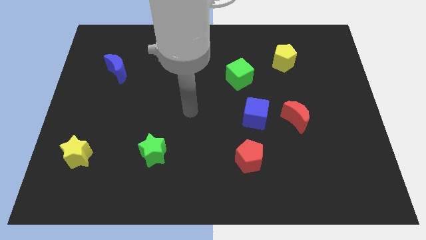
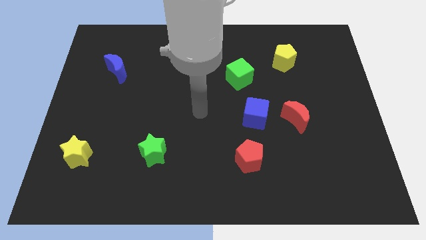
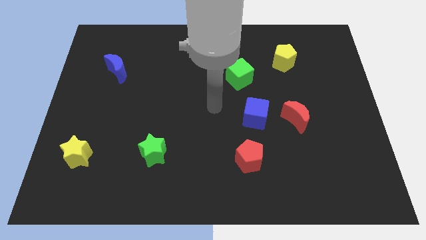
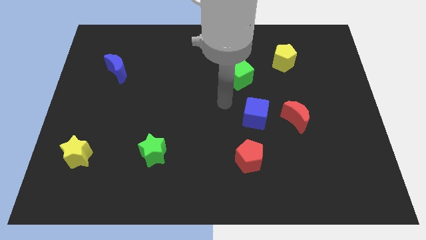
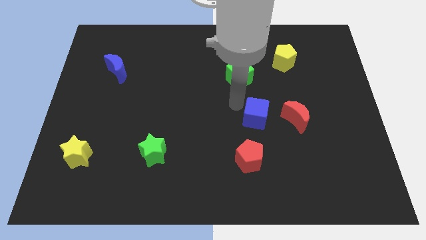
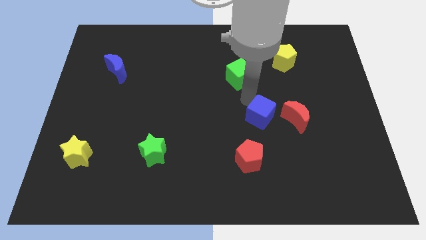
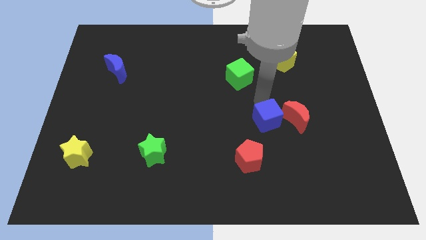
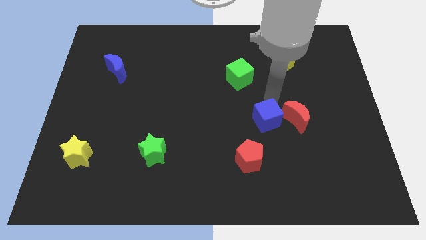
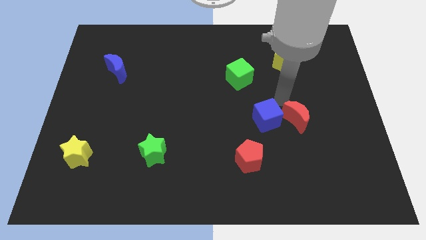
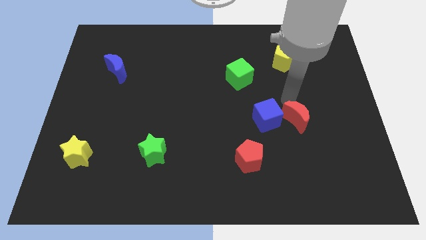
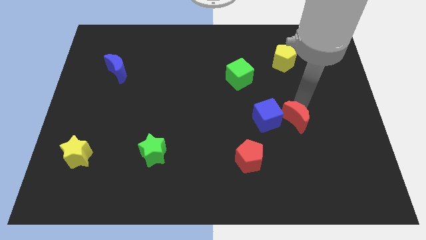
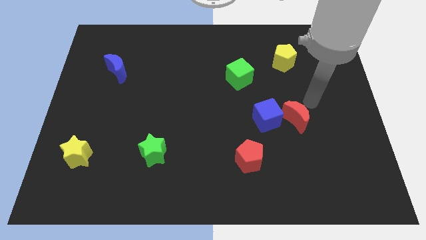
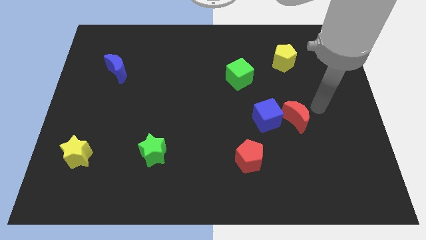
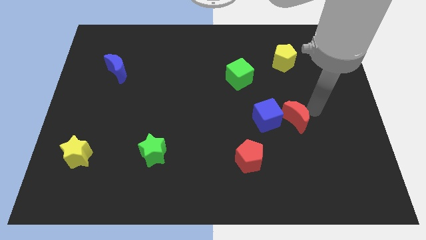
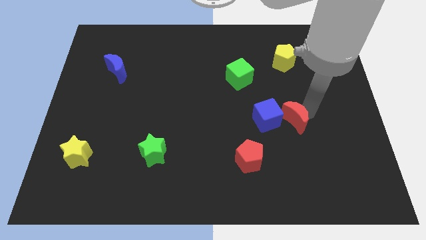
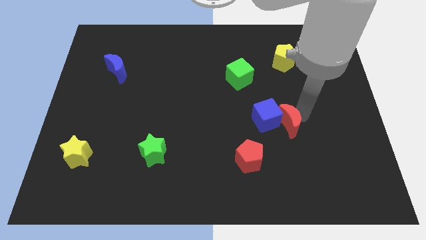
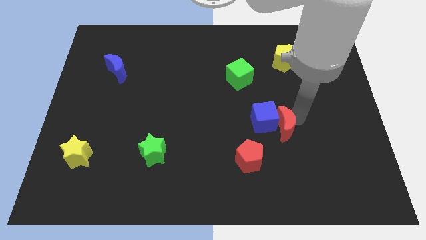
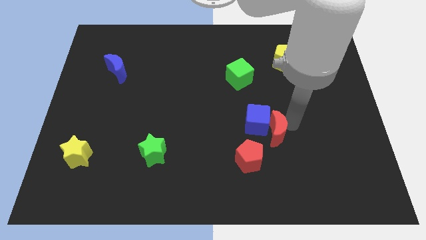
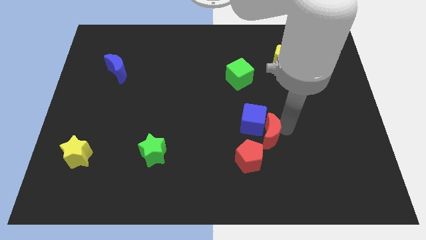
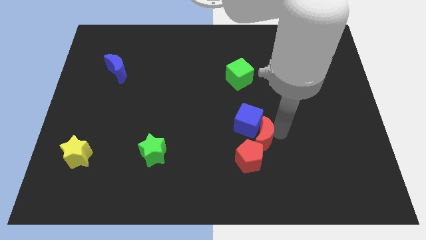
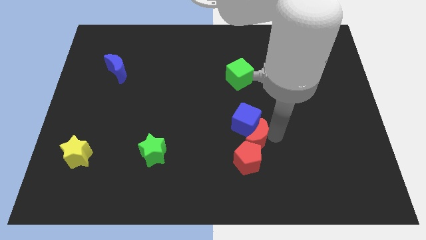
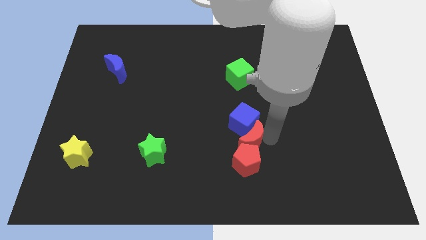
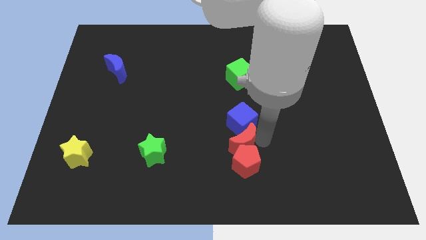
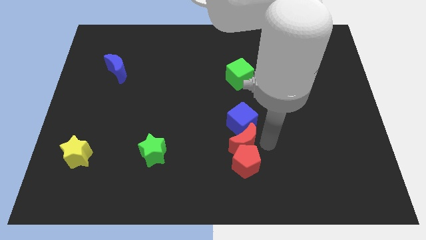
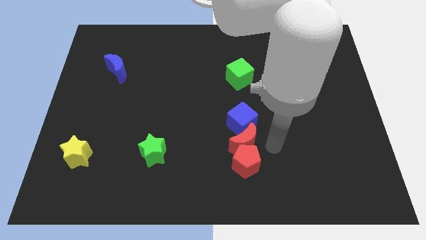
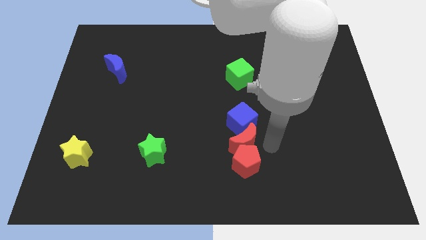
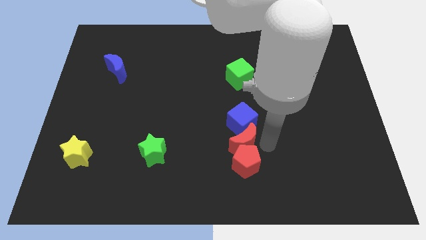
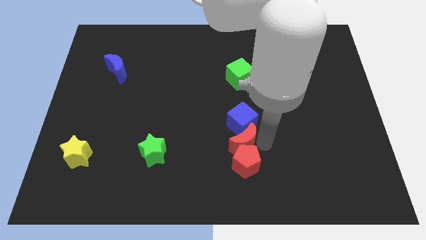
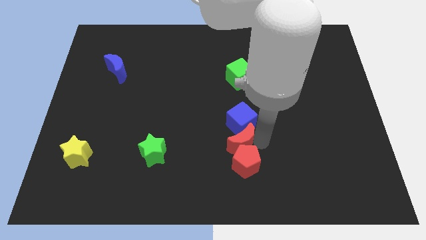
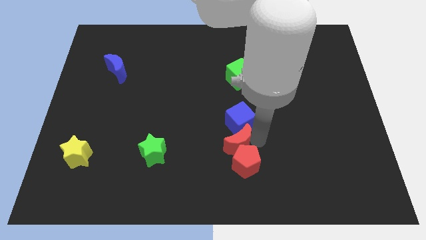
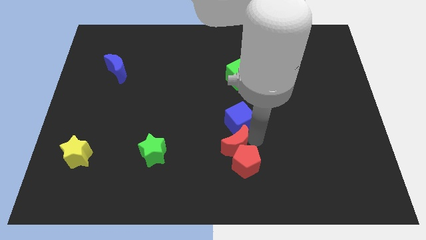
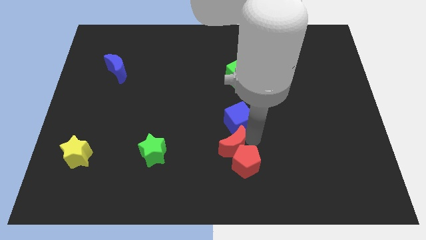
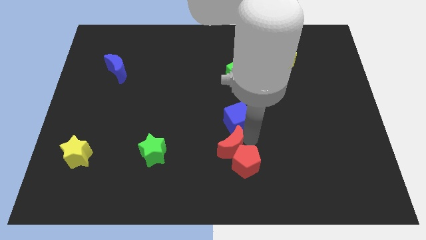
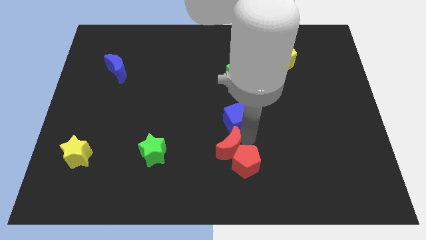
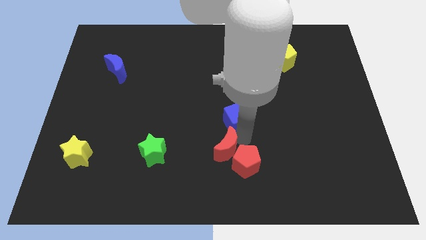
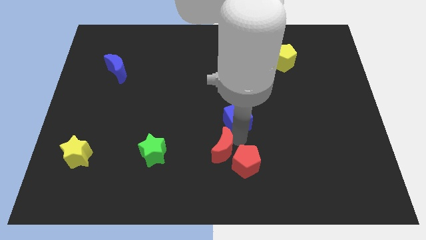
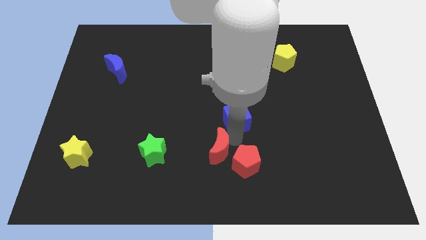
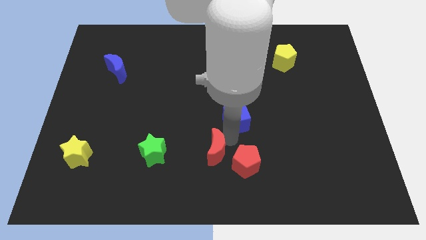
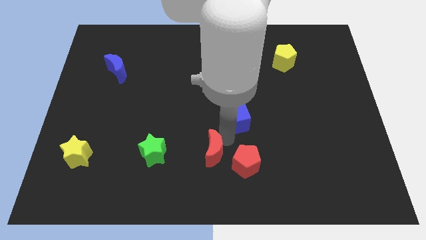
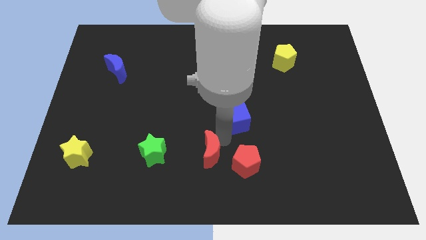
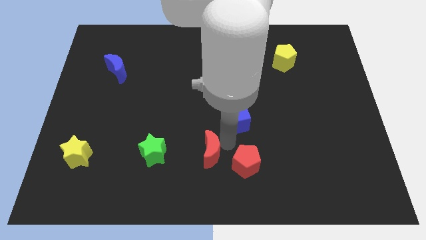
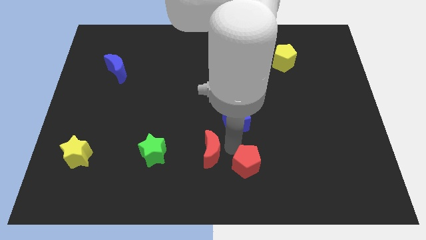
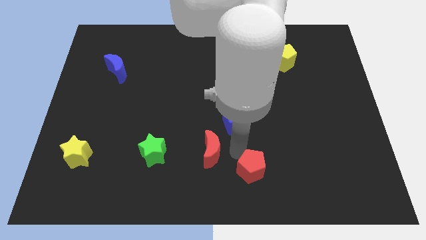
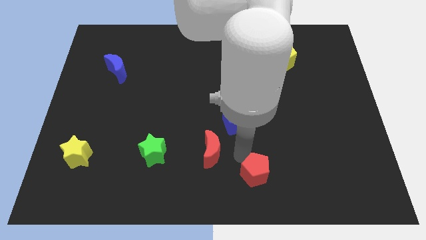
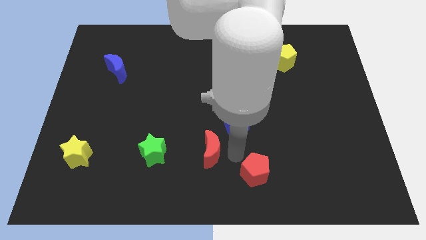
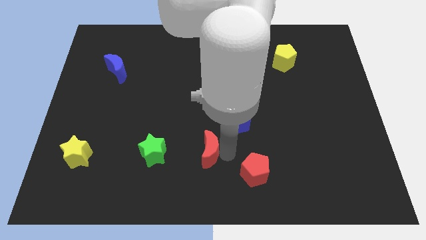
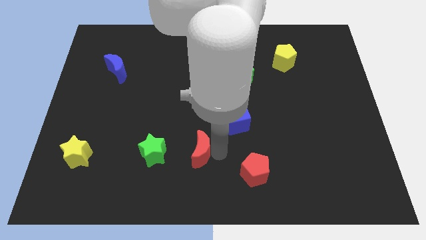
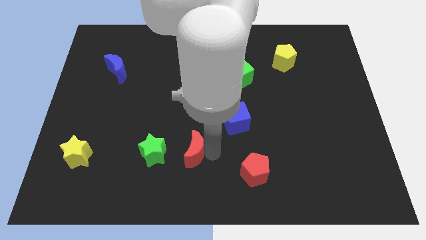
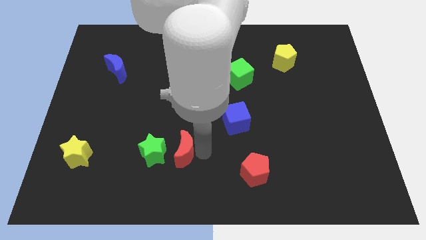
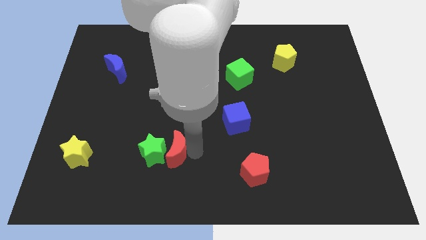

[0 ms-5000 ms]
slide the red moon close to the green star

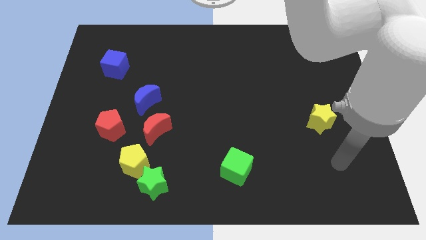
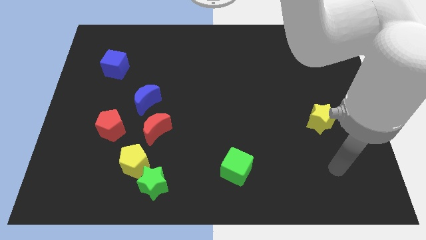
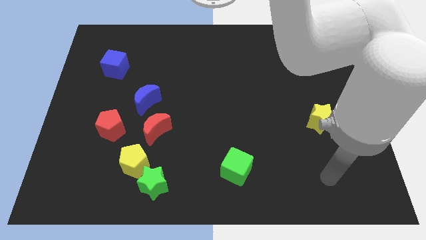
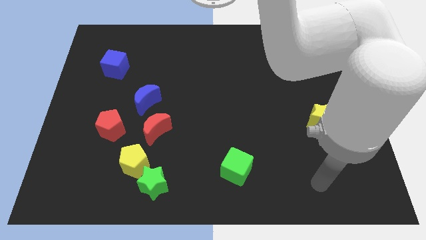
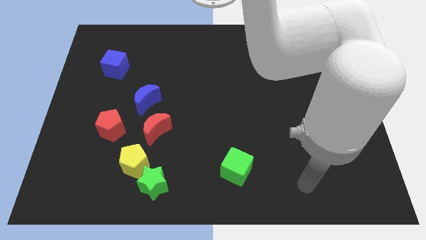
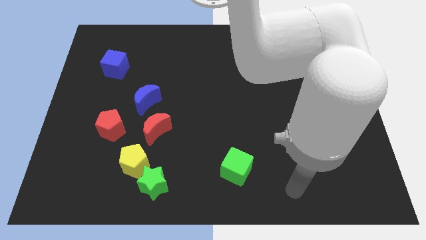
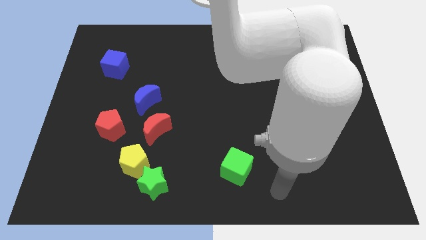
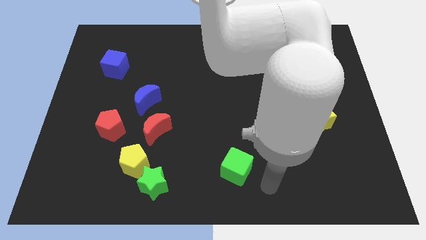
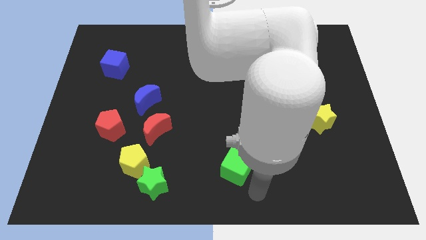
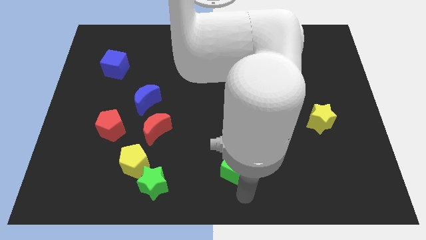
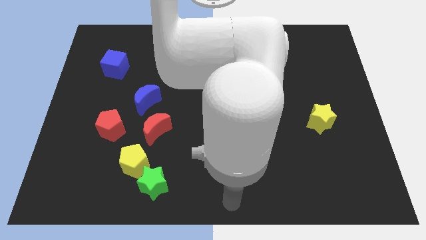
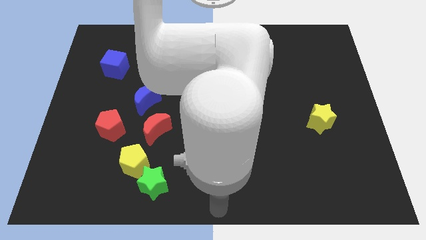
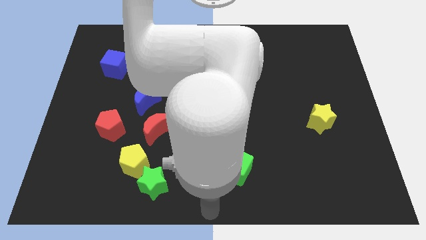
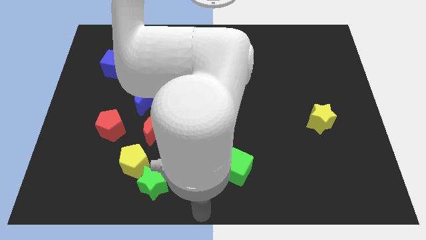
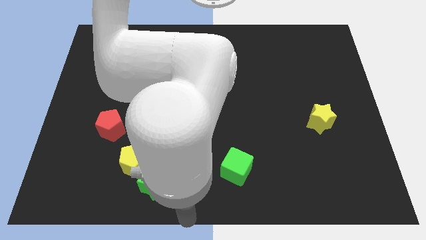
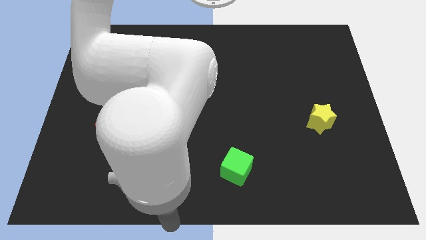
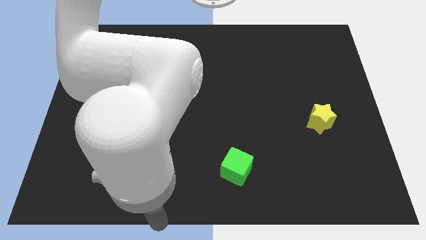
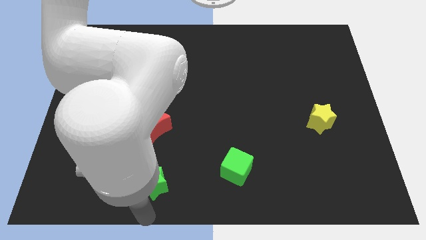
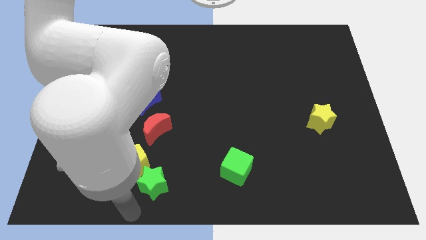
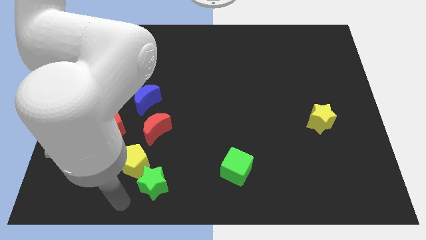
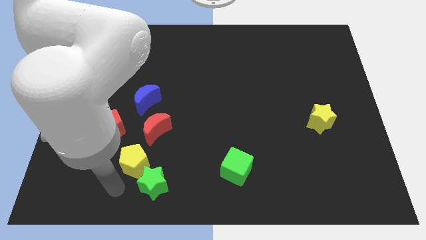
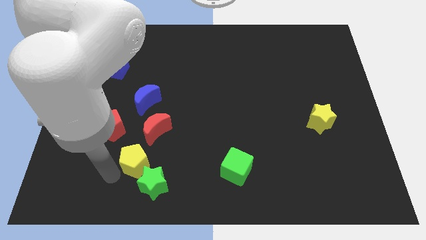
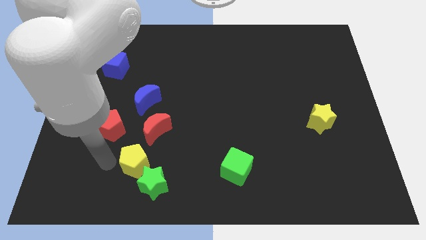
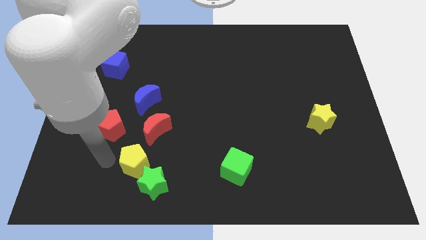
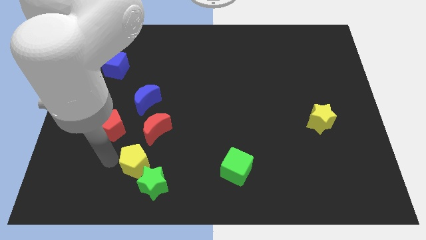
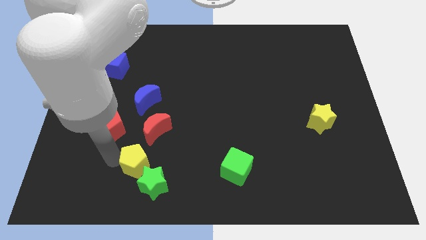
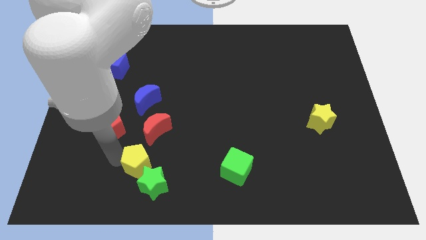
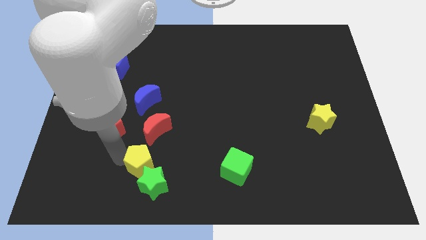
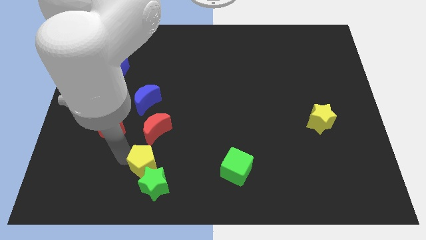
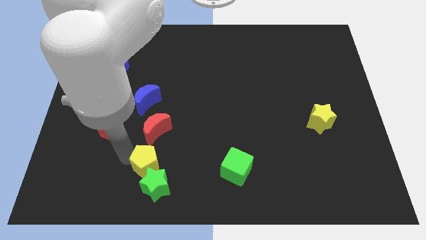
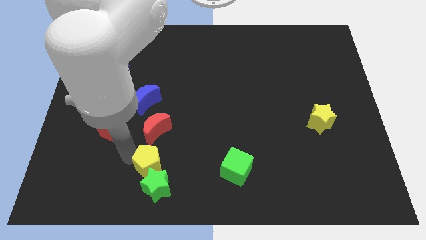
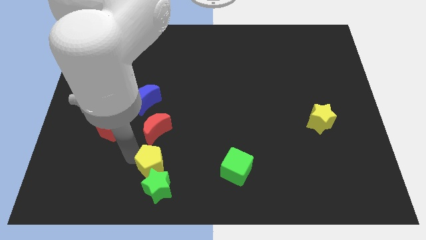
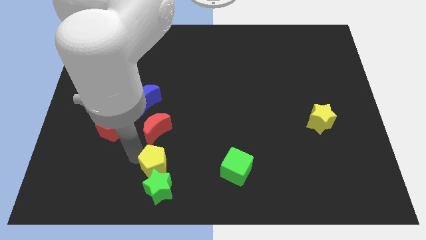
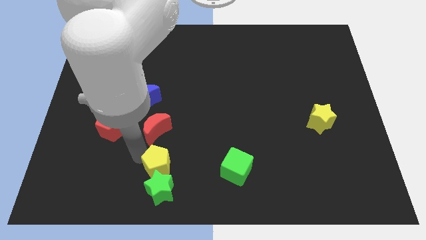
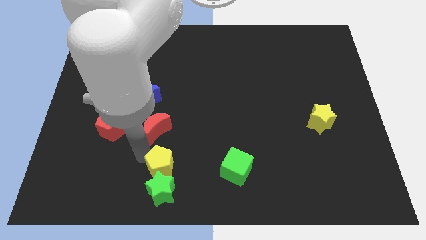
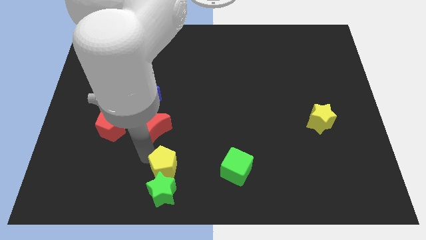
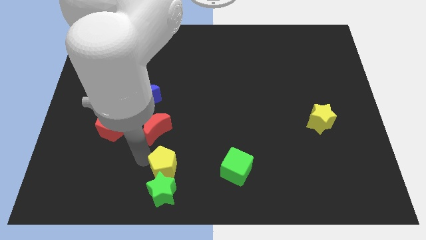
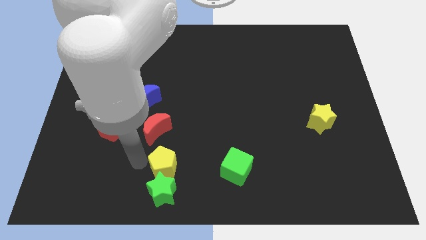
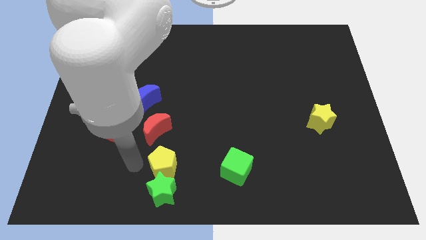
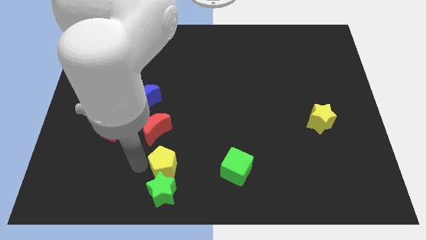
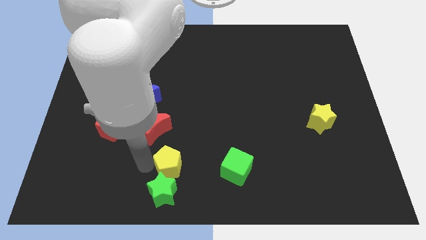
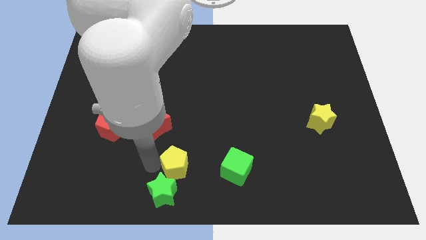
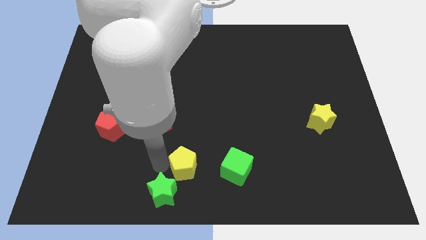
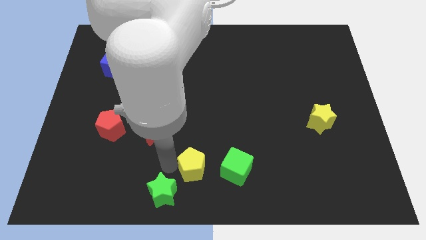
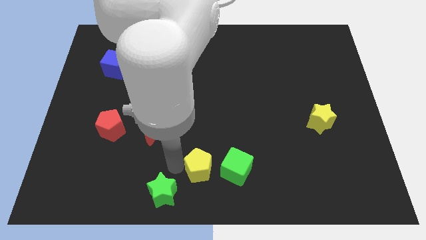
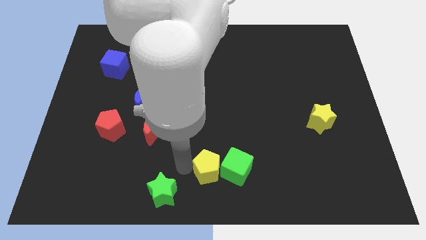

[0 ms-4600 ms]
slide the yellow pentagon to the green cube
